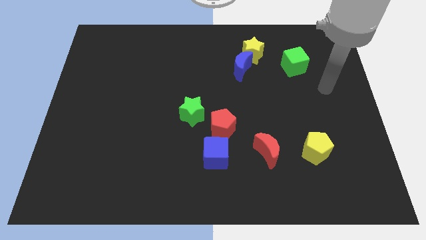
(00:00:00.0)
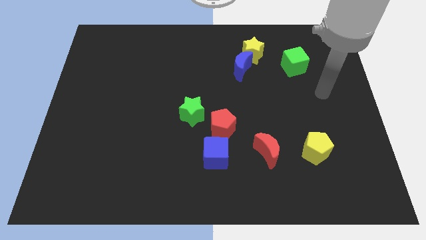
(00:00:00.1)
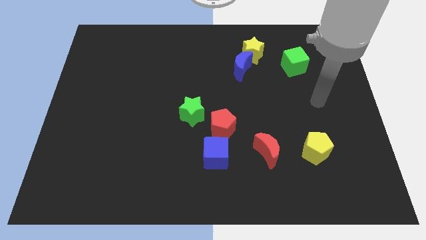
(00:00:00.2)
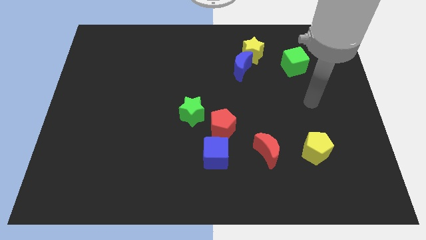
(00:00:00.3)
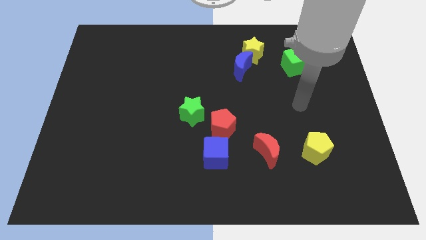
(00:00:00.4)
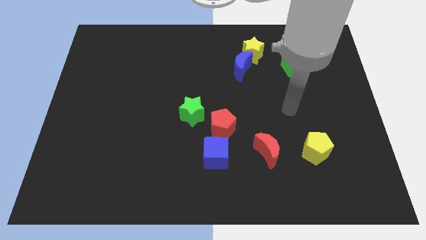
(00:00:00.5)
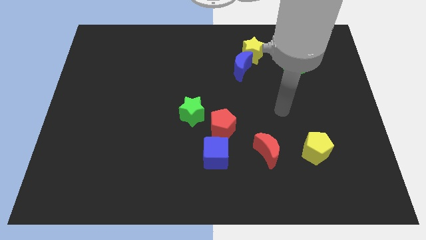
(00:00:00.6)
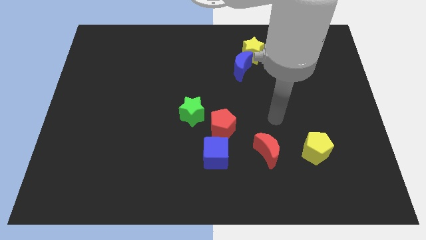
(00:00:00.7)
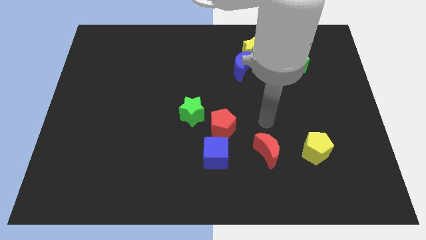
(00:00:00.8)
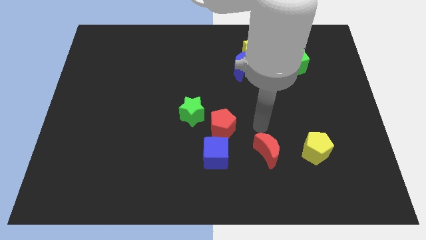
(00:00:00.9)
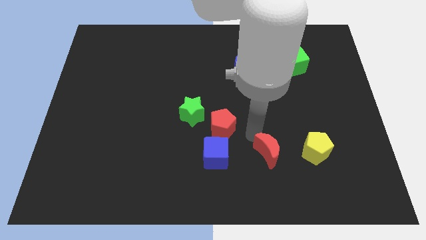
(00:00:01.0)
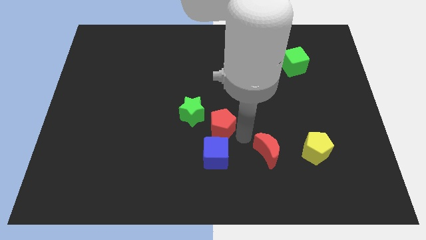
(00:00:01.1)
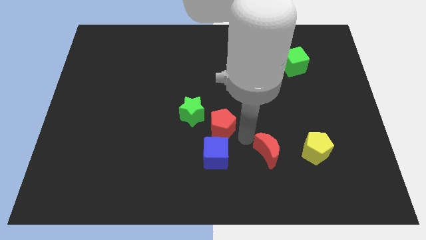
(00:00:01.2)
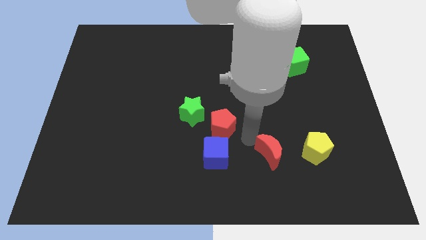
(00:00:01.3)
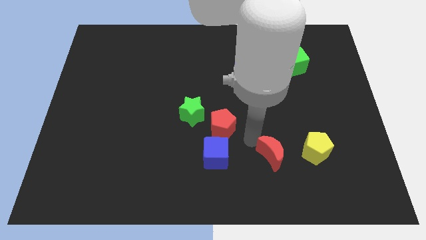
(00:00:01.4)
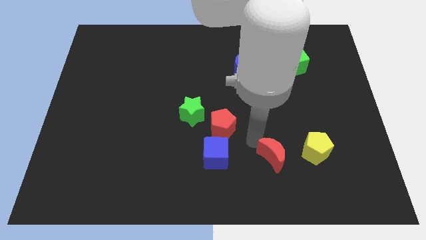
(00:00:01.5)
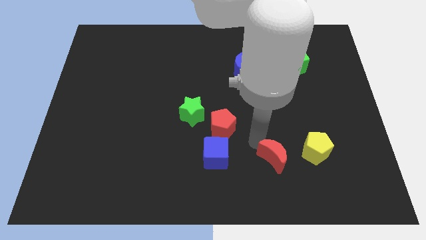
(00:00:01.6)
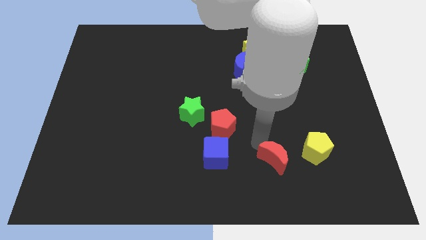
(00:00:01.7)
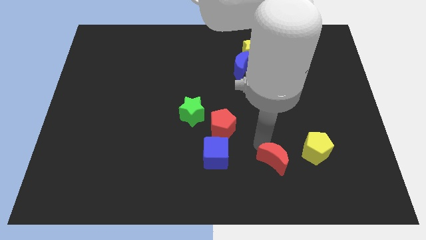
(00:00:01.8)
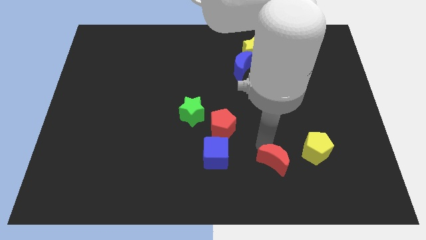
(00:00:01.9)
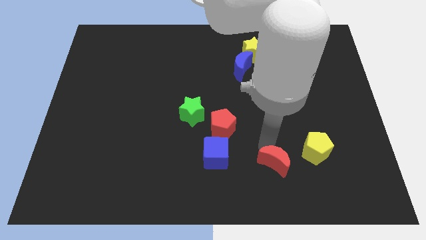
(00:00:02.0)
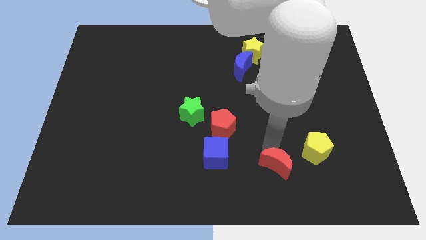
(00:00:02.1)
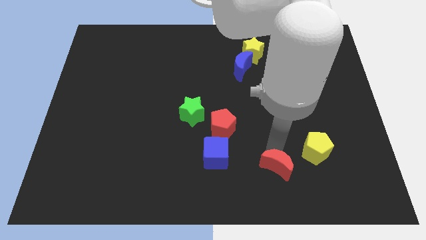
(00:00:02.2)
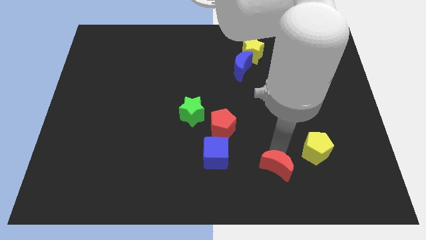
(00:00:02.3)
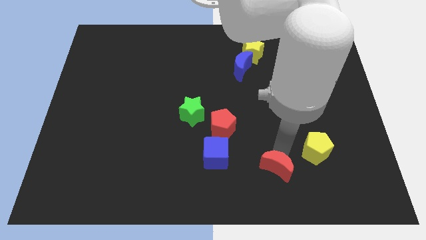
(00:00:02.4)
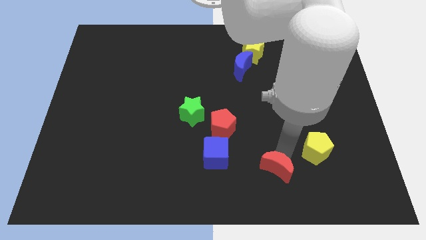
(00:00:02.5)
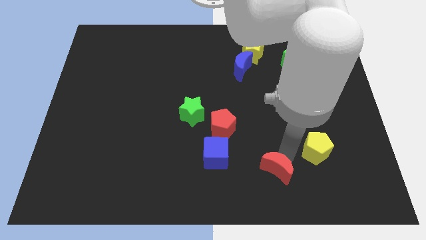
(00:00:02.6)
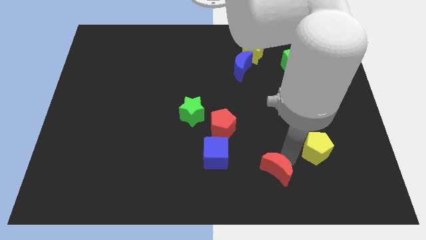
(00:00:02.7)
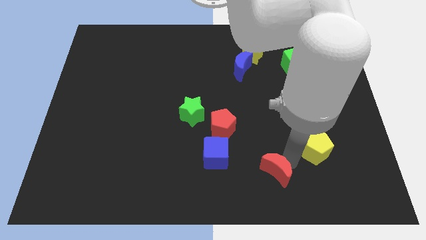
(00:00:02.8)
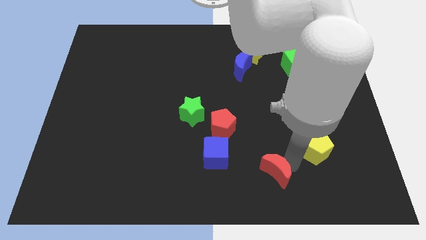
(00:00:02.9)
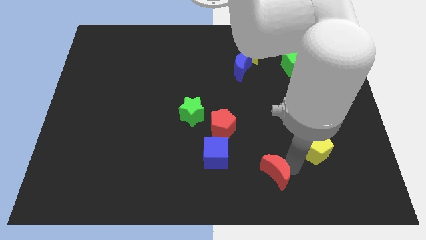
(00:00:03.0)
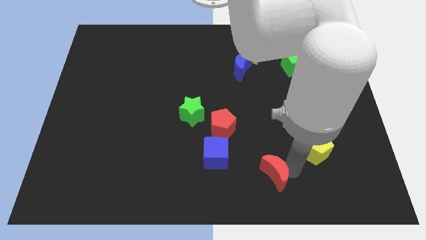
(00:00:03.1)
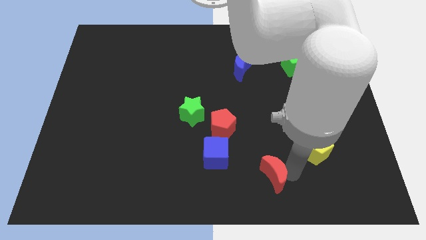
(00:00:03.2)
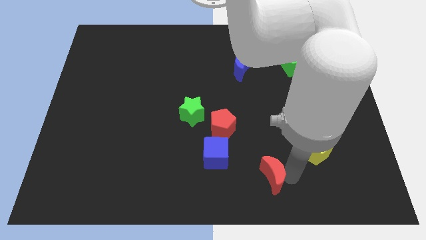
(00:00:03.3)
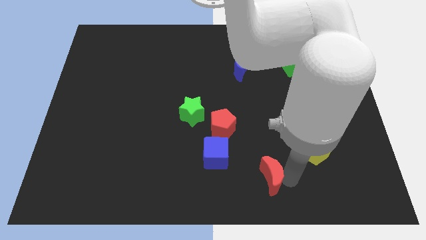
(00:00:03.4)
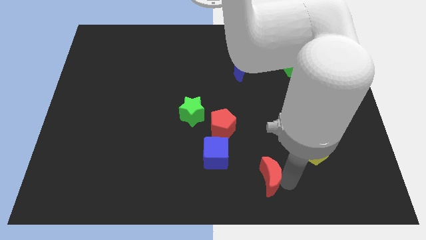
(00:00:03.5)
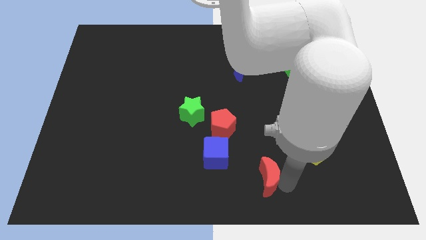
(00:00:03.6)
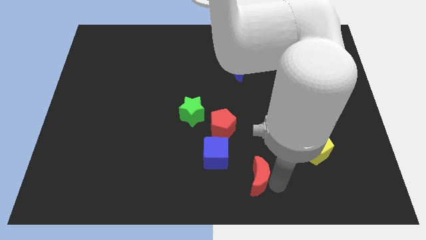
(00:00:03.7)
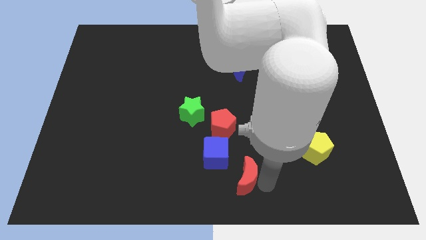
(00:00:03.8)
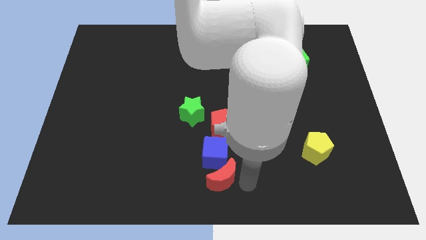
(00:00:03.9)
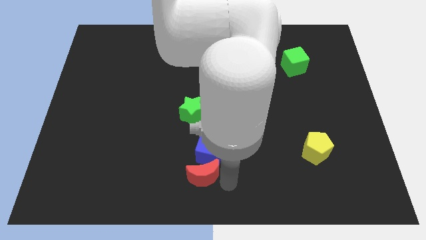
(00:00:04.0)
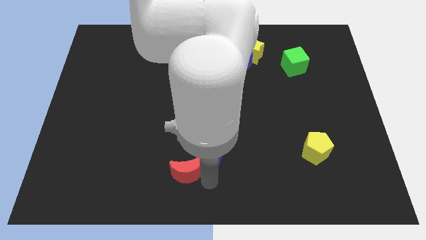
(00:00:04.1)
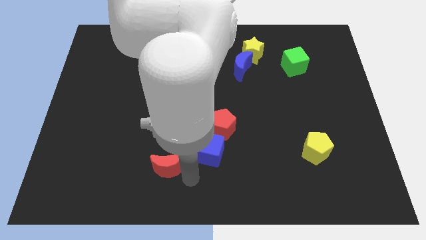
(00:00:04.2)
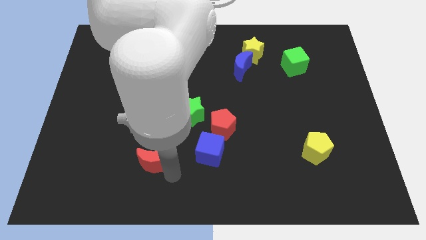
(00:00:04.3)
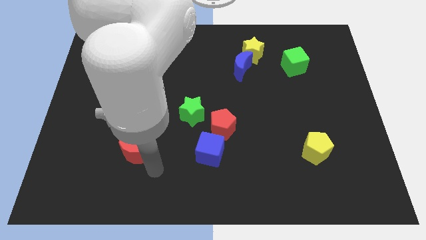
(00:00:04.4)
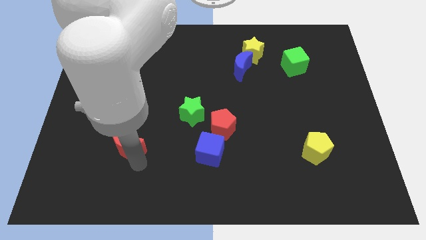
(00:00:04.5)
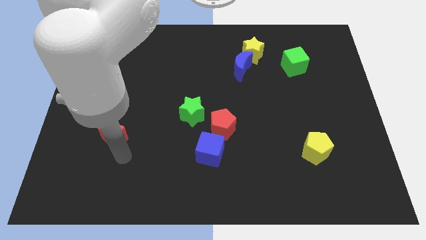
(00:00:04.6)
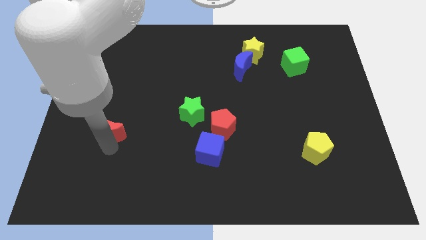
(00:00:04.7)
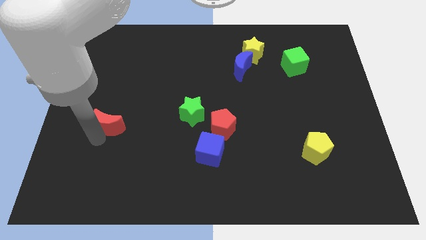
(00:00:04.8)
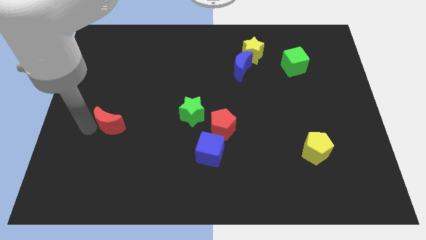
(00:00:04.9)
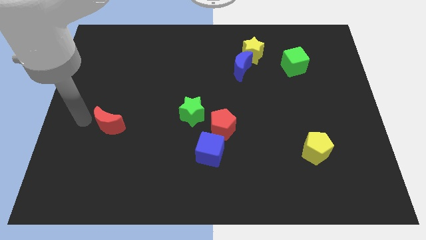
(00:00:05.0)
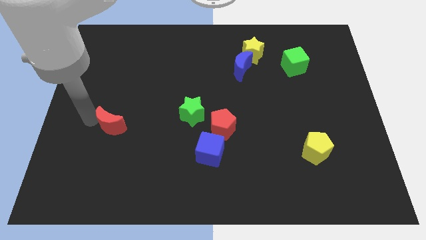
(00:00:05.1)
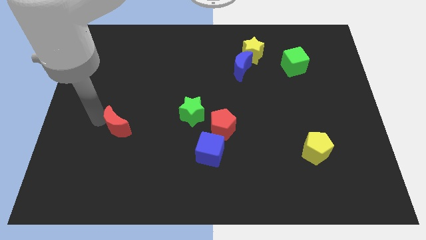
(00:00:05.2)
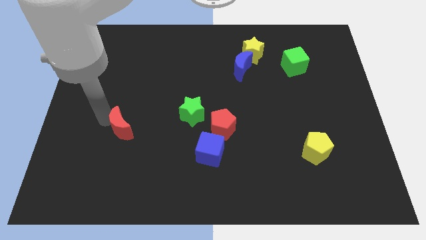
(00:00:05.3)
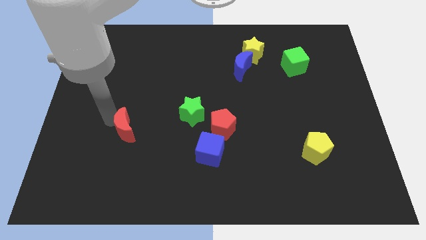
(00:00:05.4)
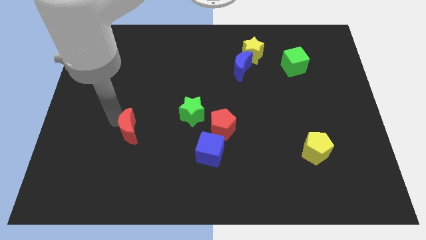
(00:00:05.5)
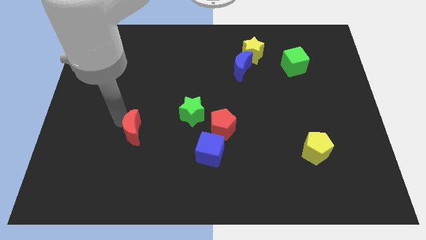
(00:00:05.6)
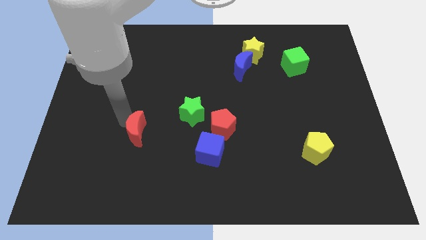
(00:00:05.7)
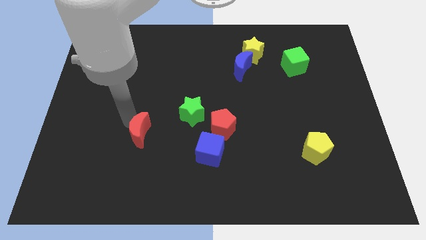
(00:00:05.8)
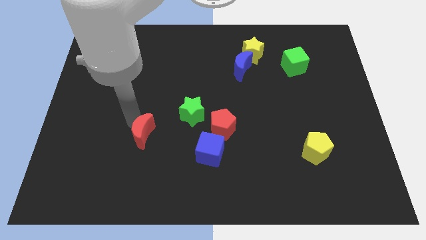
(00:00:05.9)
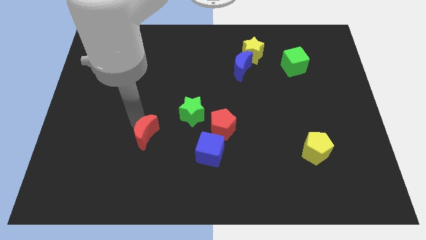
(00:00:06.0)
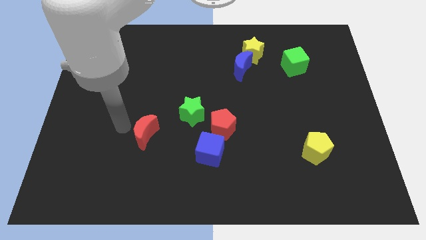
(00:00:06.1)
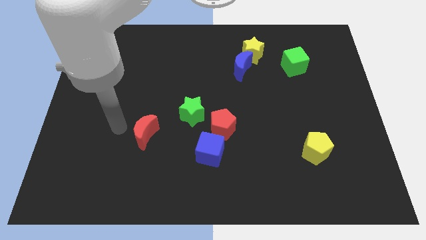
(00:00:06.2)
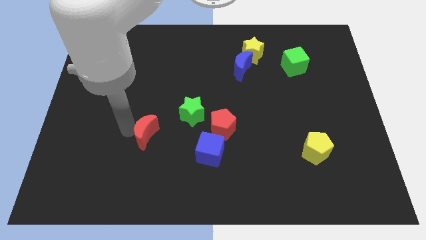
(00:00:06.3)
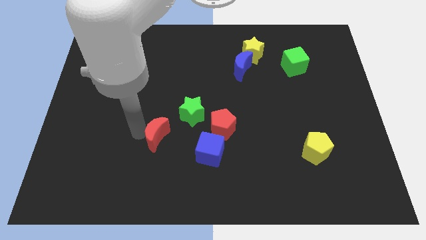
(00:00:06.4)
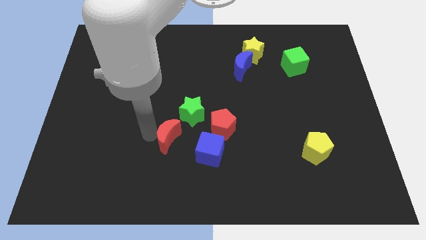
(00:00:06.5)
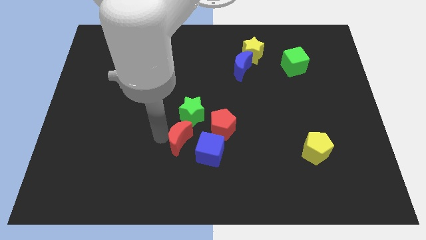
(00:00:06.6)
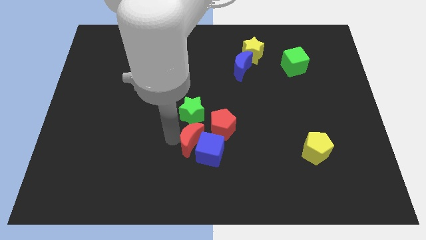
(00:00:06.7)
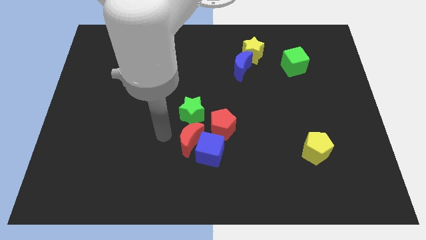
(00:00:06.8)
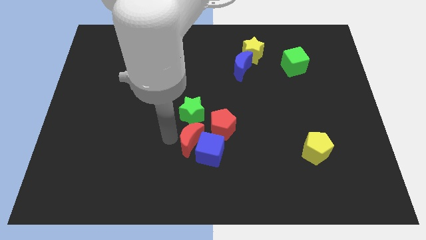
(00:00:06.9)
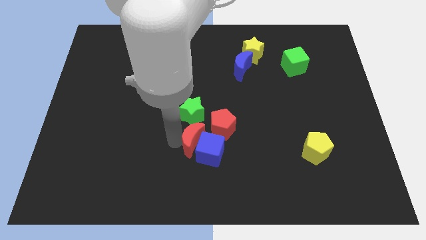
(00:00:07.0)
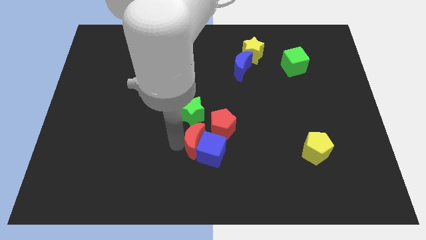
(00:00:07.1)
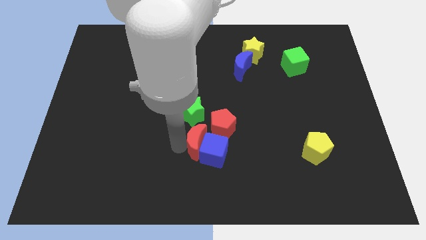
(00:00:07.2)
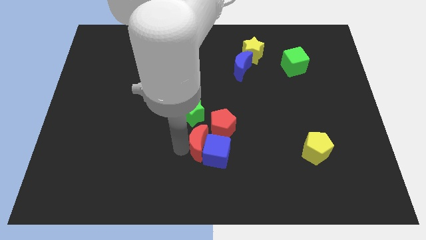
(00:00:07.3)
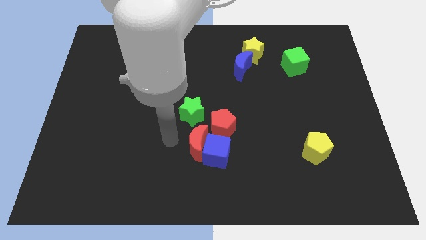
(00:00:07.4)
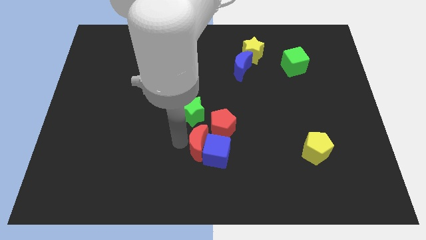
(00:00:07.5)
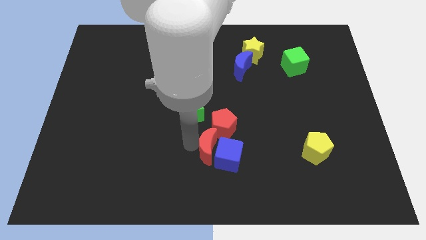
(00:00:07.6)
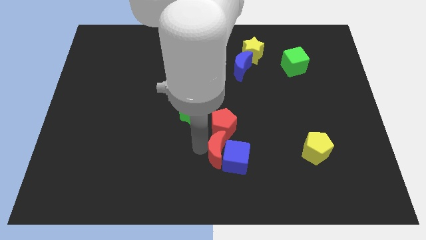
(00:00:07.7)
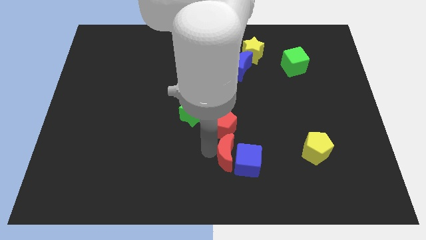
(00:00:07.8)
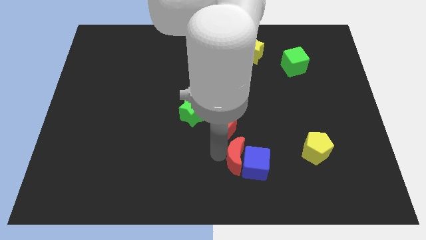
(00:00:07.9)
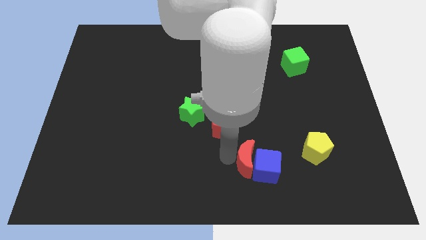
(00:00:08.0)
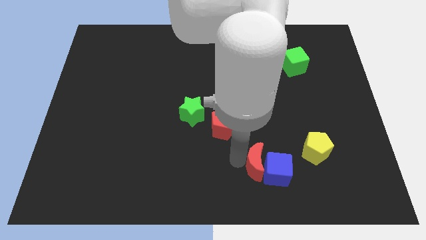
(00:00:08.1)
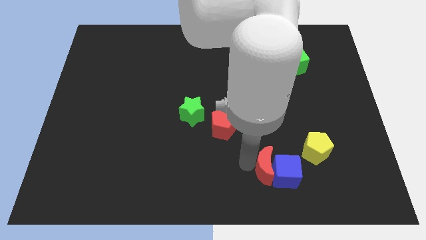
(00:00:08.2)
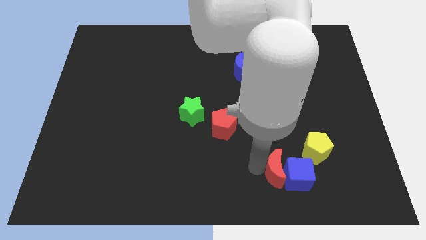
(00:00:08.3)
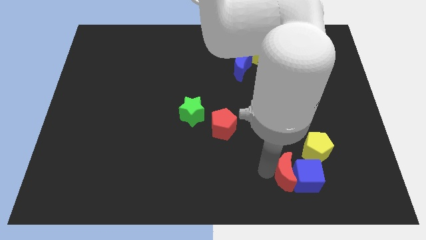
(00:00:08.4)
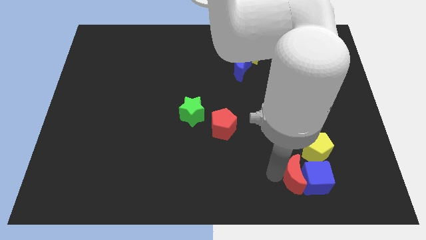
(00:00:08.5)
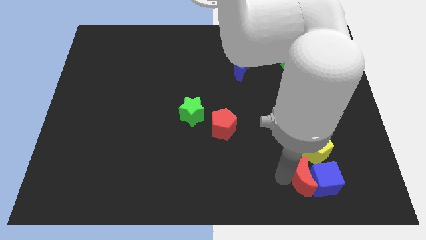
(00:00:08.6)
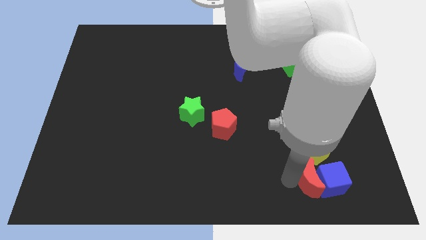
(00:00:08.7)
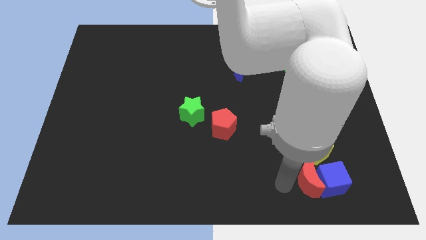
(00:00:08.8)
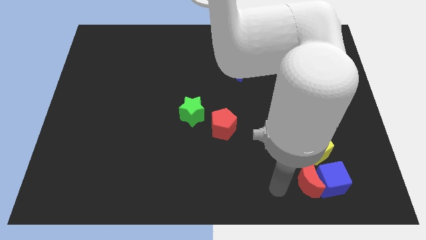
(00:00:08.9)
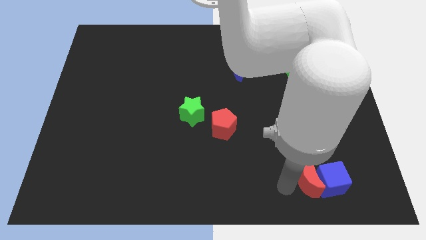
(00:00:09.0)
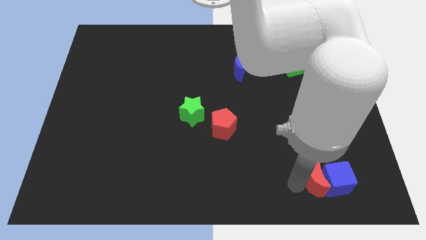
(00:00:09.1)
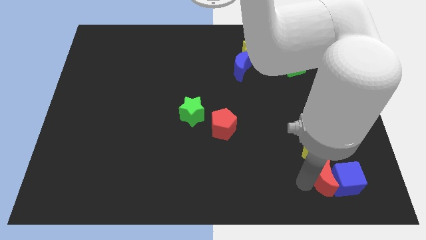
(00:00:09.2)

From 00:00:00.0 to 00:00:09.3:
put the red moon diagonally down and to the right of the yellow pentagon
